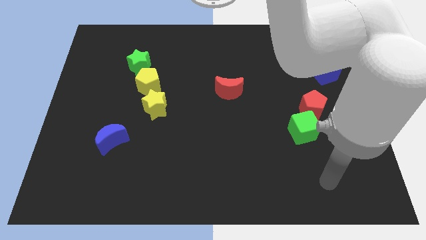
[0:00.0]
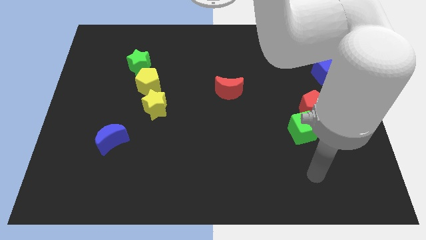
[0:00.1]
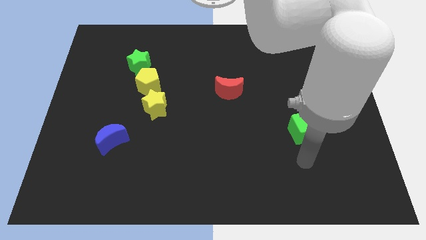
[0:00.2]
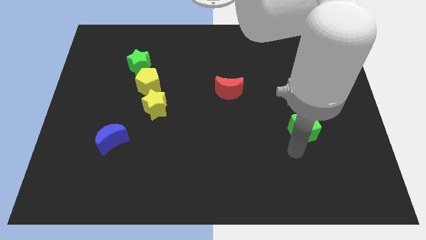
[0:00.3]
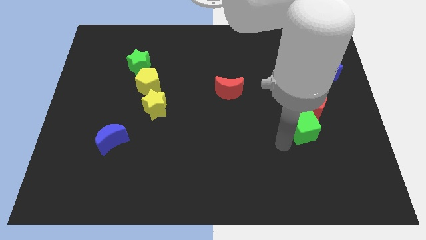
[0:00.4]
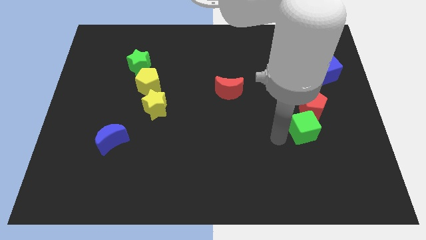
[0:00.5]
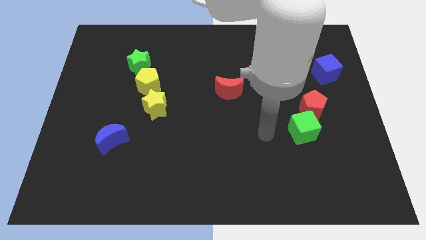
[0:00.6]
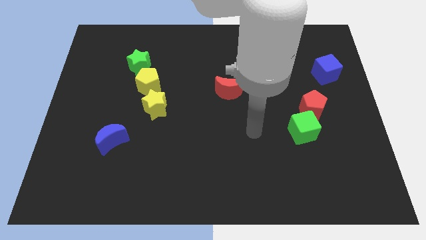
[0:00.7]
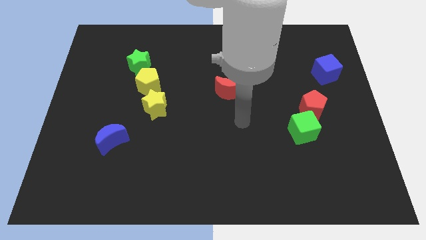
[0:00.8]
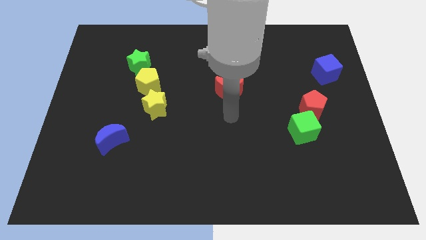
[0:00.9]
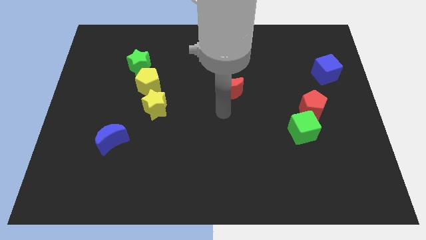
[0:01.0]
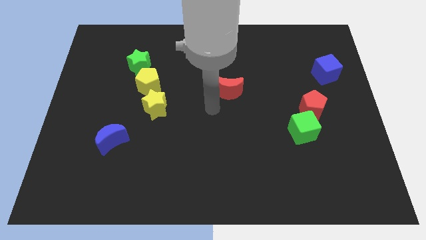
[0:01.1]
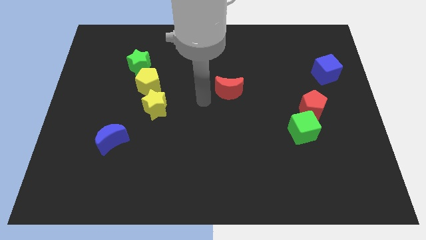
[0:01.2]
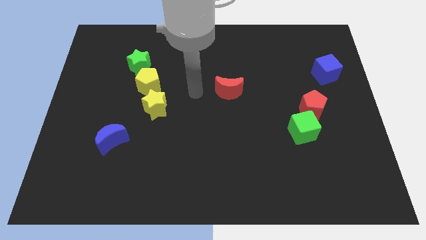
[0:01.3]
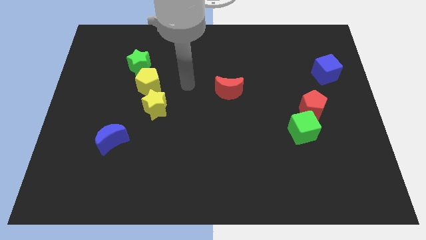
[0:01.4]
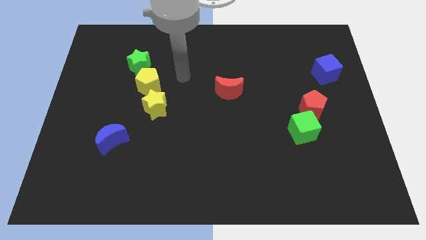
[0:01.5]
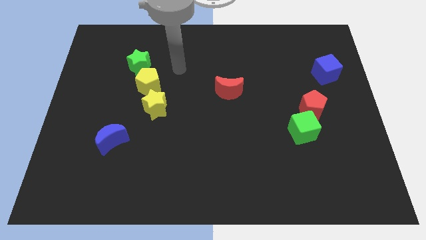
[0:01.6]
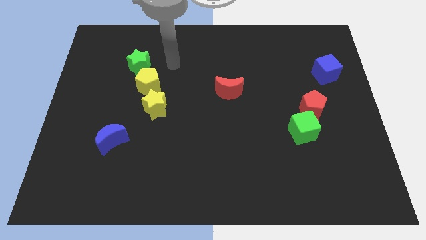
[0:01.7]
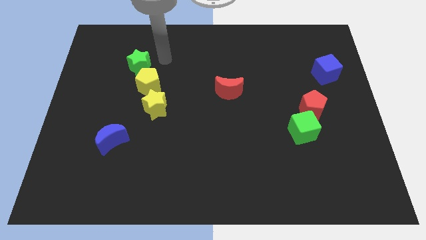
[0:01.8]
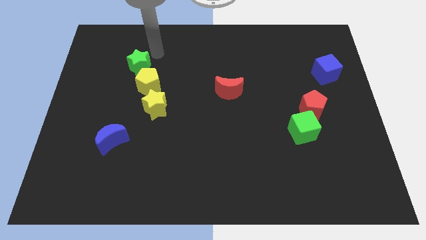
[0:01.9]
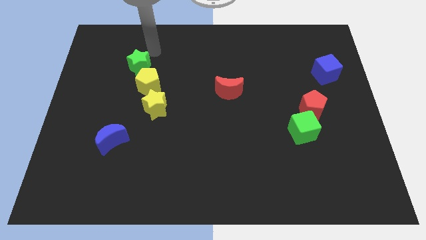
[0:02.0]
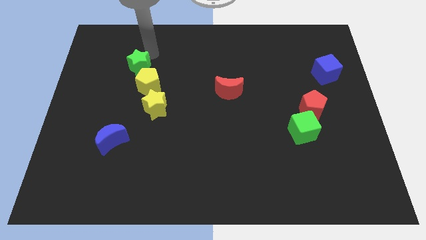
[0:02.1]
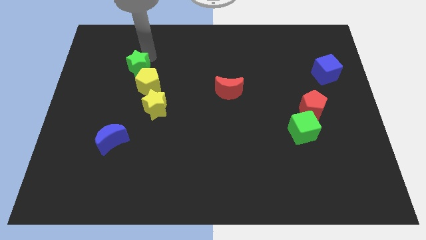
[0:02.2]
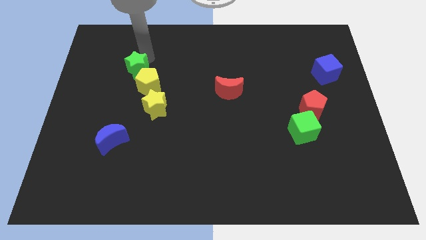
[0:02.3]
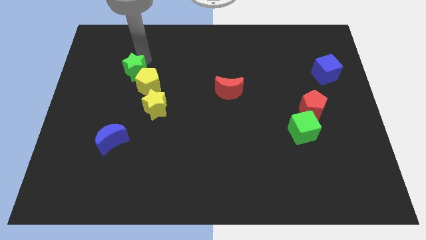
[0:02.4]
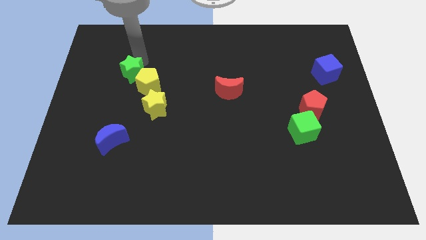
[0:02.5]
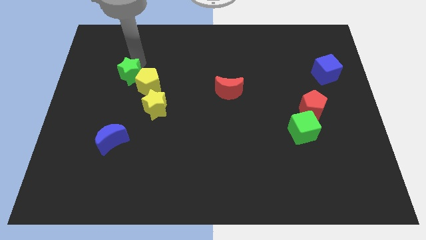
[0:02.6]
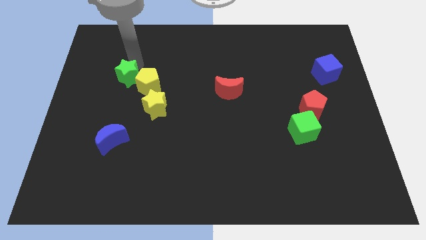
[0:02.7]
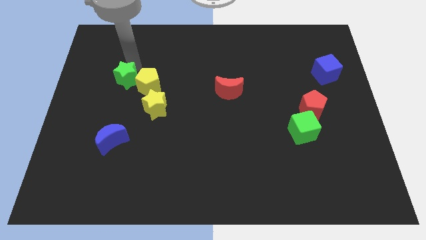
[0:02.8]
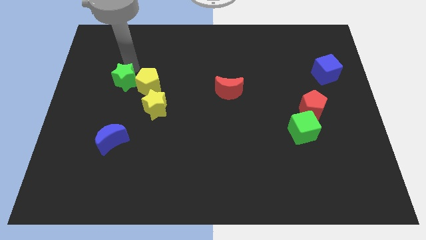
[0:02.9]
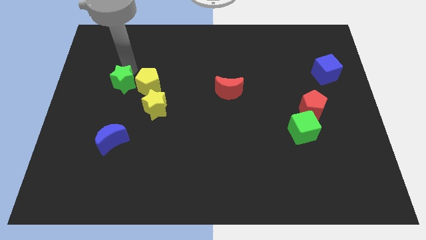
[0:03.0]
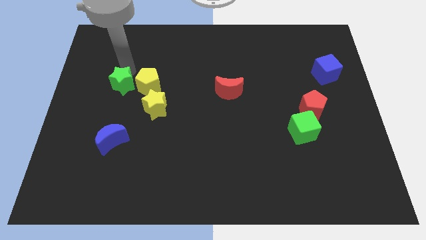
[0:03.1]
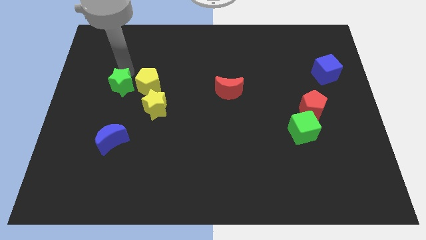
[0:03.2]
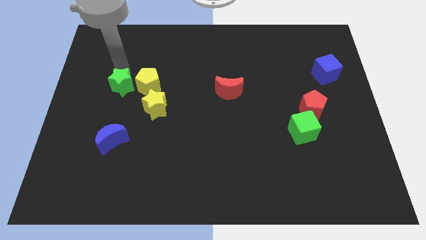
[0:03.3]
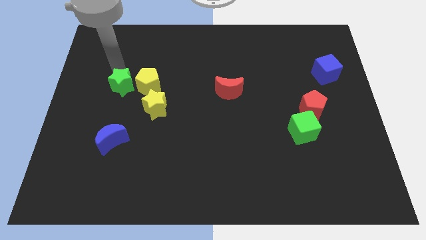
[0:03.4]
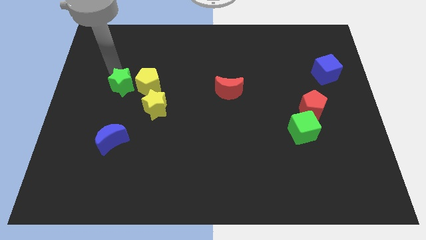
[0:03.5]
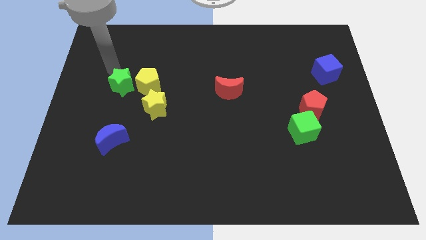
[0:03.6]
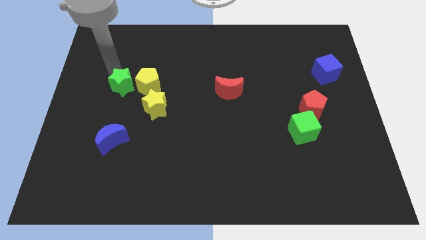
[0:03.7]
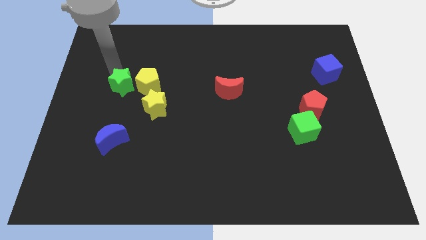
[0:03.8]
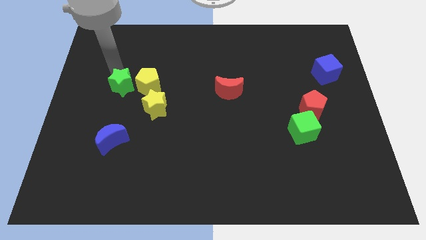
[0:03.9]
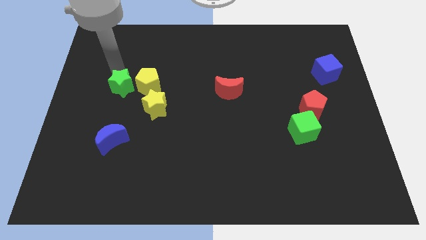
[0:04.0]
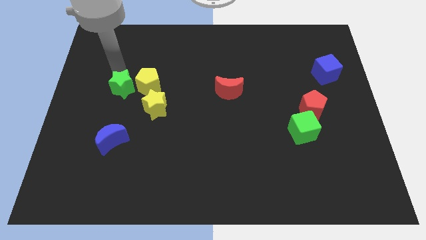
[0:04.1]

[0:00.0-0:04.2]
slightly slide the green star down

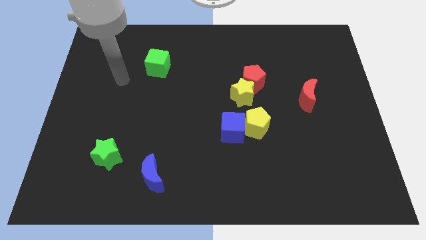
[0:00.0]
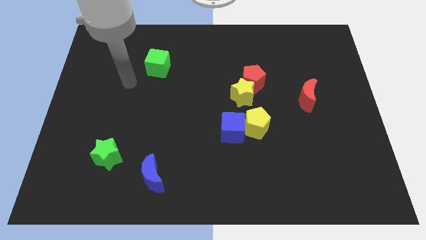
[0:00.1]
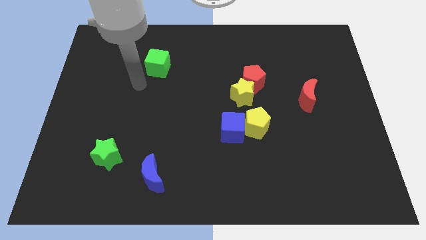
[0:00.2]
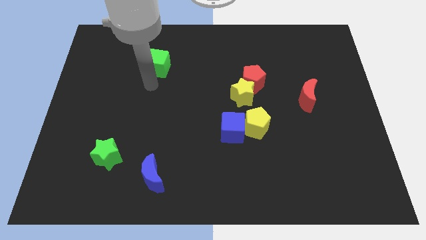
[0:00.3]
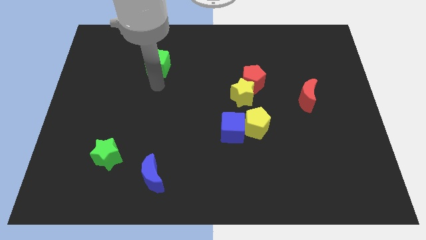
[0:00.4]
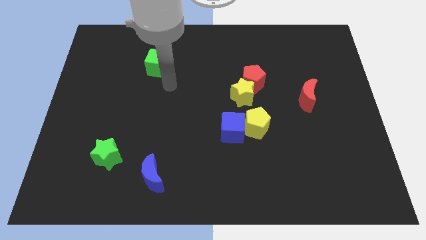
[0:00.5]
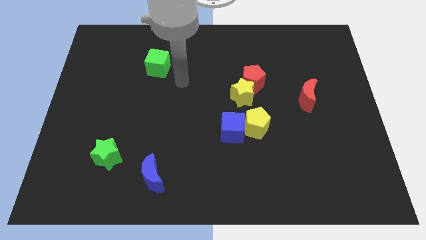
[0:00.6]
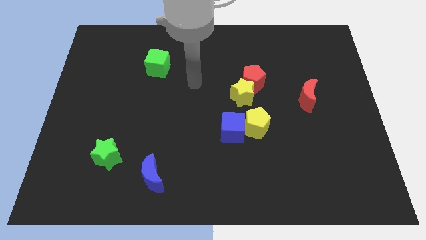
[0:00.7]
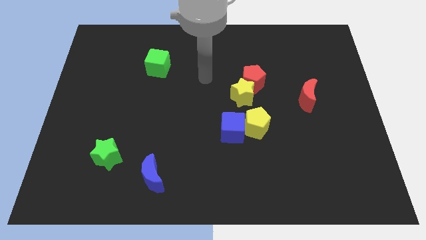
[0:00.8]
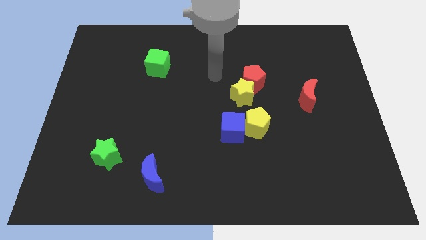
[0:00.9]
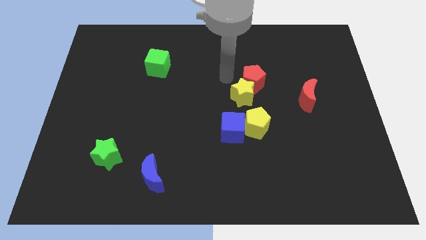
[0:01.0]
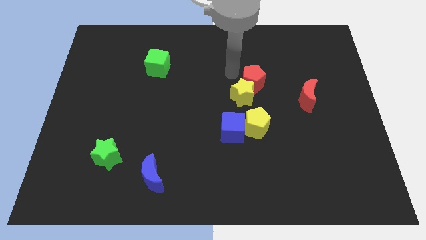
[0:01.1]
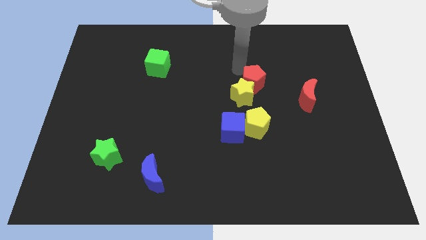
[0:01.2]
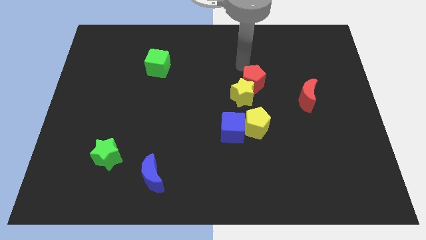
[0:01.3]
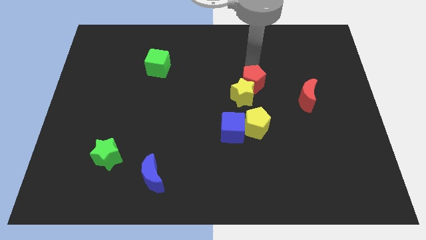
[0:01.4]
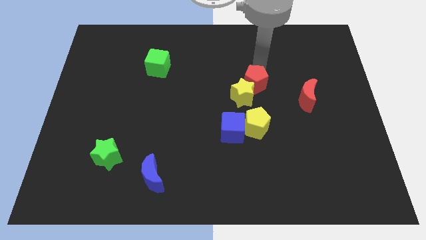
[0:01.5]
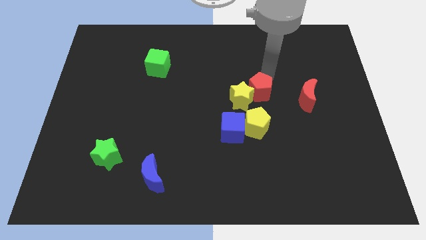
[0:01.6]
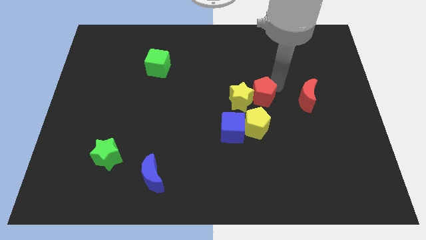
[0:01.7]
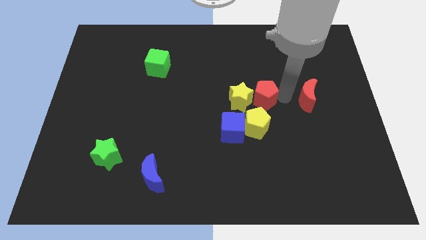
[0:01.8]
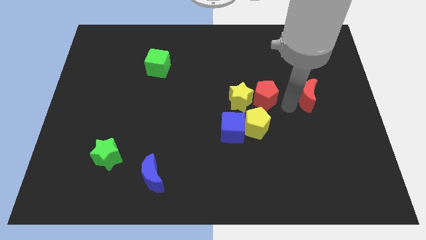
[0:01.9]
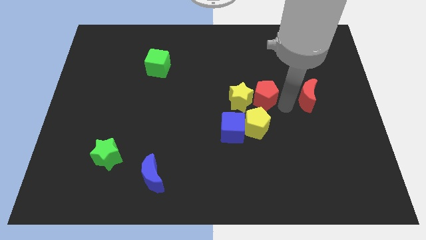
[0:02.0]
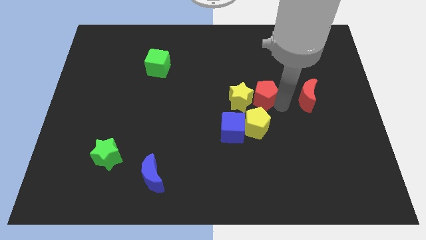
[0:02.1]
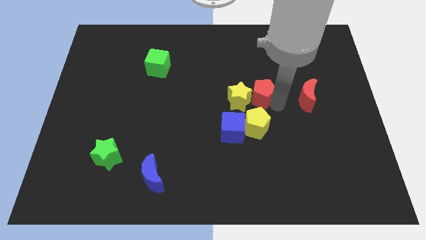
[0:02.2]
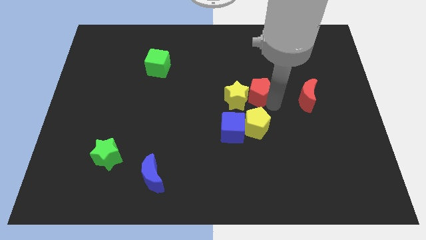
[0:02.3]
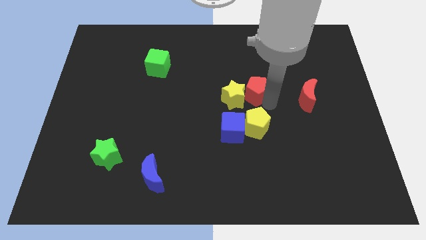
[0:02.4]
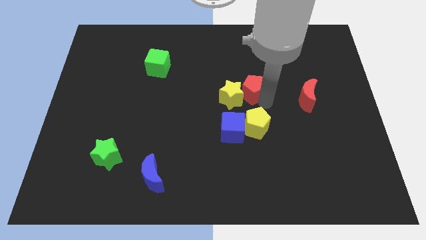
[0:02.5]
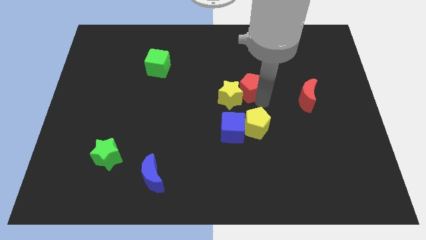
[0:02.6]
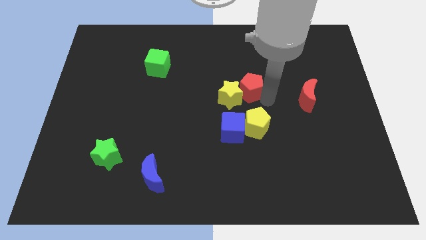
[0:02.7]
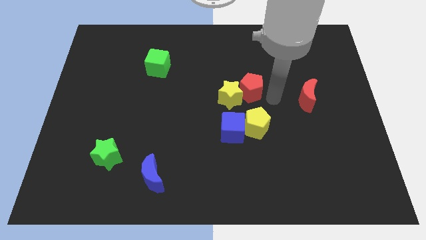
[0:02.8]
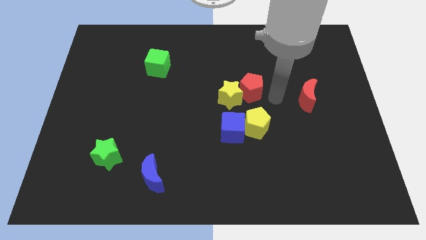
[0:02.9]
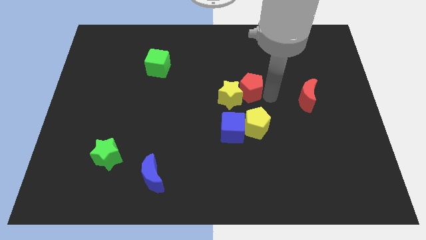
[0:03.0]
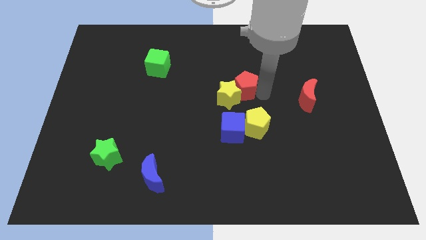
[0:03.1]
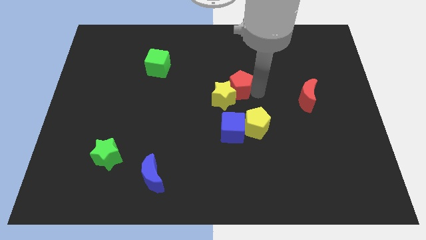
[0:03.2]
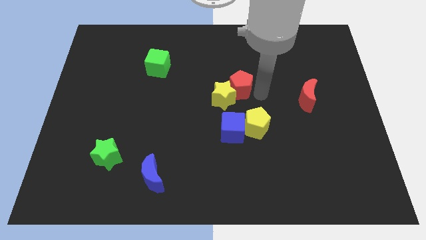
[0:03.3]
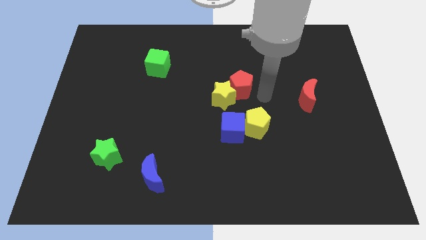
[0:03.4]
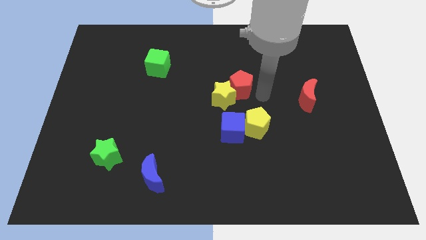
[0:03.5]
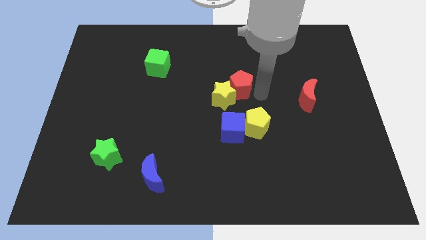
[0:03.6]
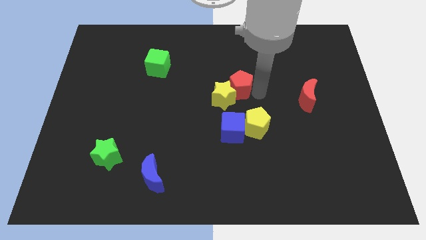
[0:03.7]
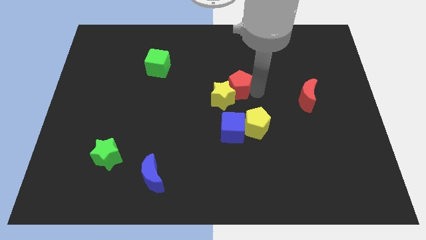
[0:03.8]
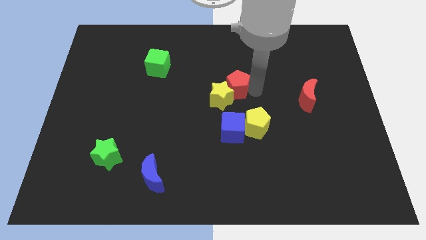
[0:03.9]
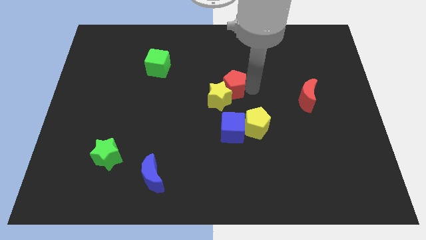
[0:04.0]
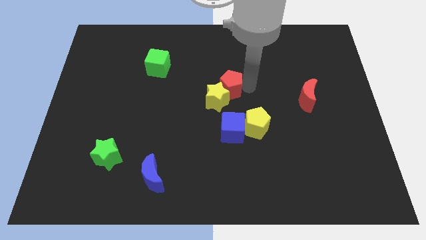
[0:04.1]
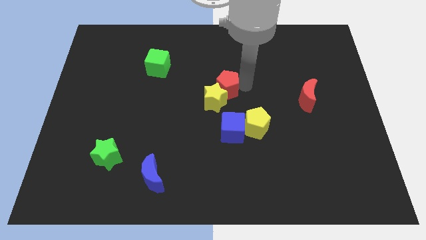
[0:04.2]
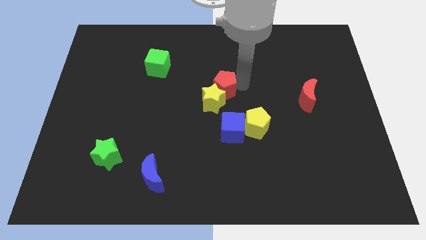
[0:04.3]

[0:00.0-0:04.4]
slide the red pentagon left a bit
